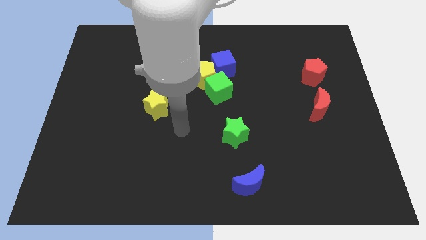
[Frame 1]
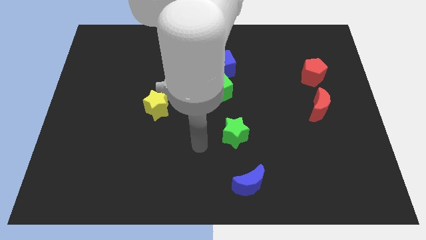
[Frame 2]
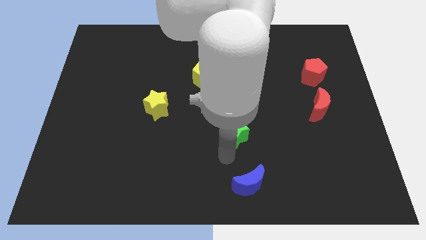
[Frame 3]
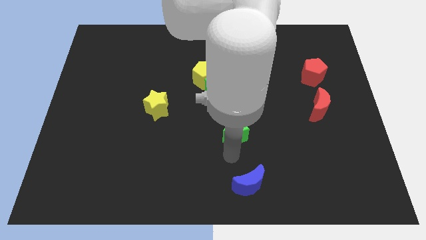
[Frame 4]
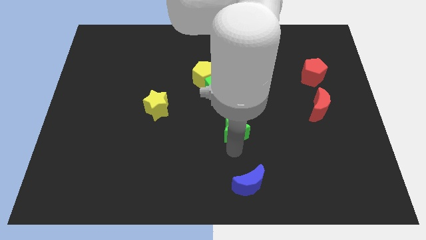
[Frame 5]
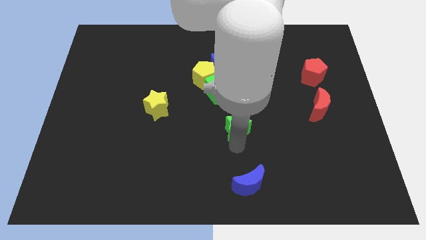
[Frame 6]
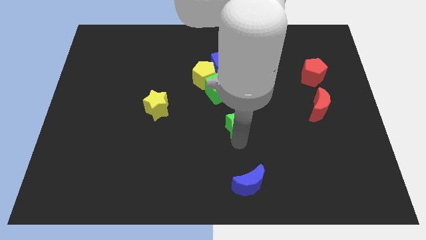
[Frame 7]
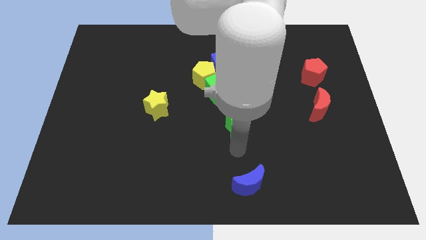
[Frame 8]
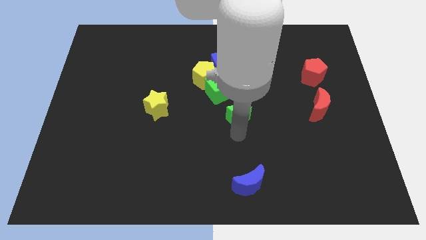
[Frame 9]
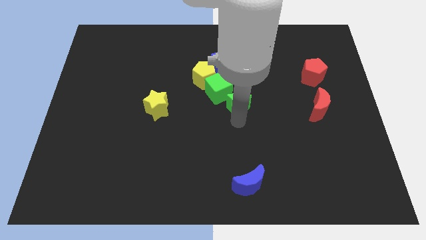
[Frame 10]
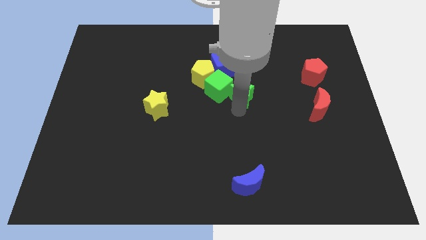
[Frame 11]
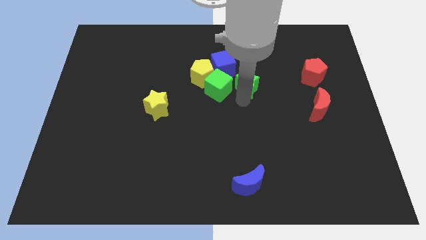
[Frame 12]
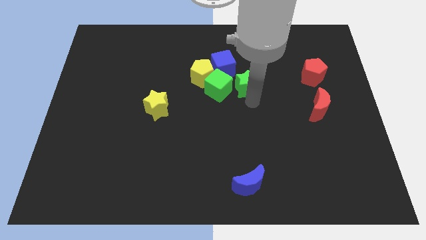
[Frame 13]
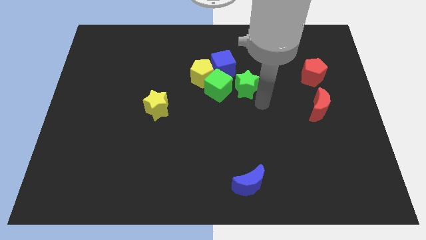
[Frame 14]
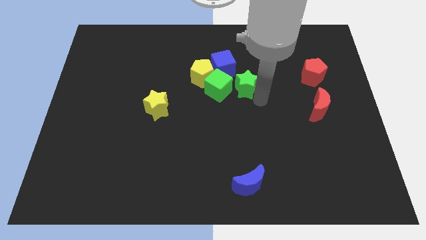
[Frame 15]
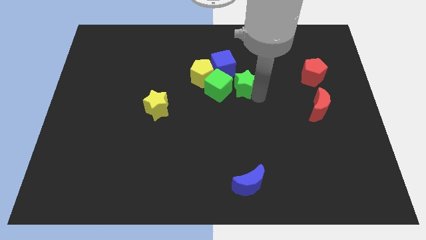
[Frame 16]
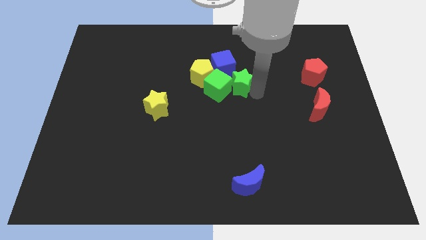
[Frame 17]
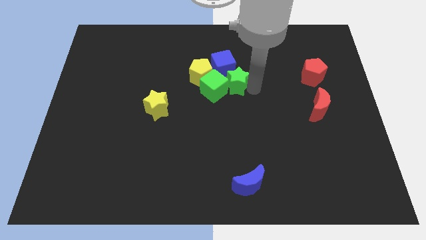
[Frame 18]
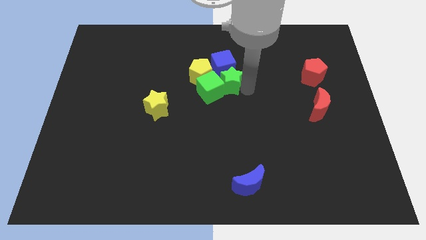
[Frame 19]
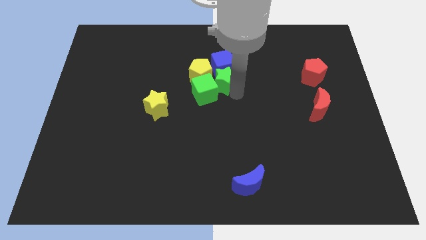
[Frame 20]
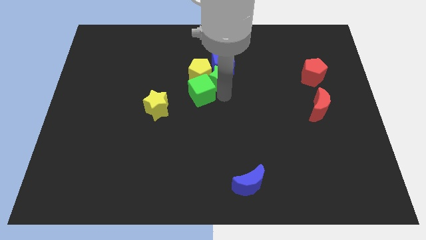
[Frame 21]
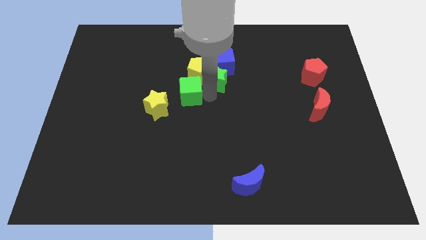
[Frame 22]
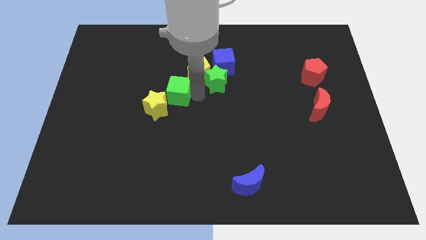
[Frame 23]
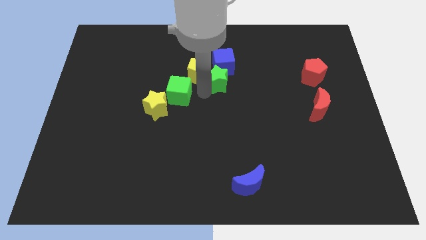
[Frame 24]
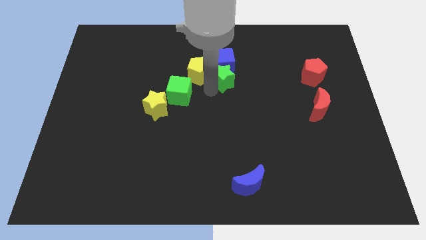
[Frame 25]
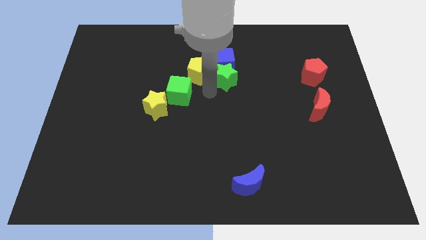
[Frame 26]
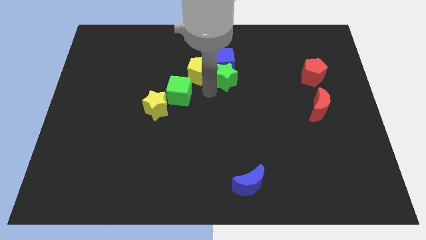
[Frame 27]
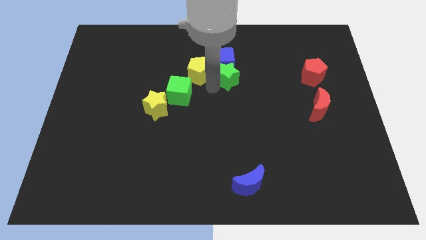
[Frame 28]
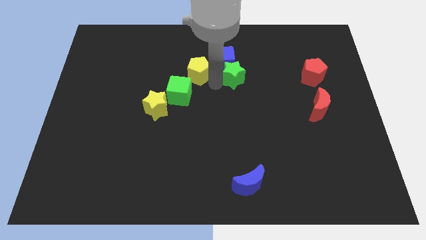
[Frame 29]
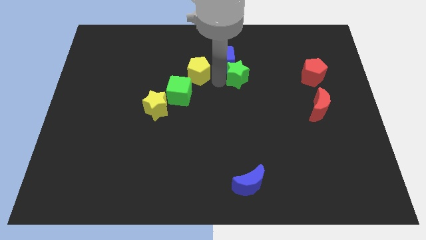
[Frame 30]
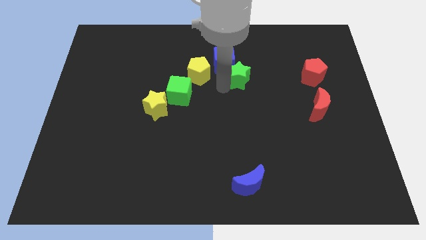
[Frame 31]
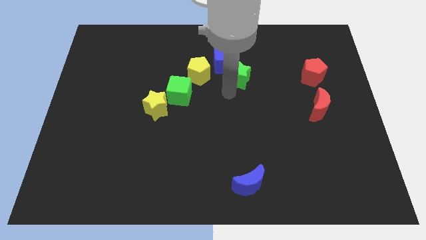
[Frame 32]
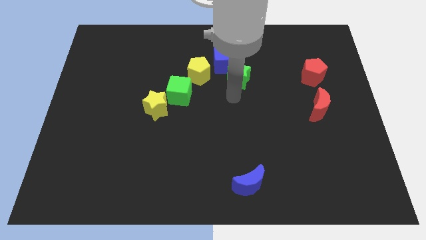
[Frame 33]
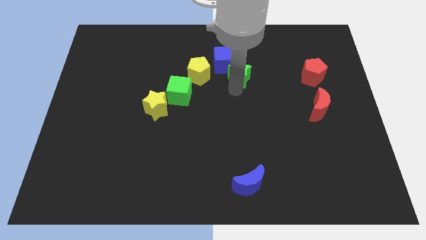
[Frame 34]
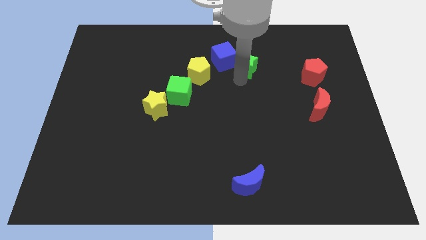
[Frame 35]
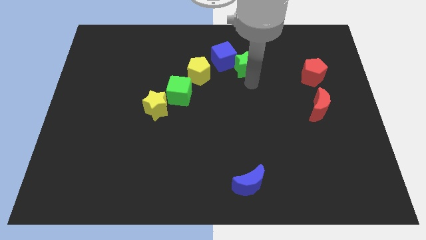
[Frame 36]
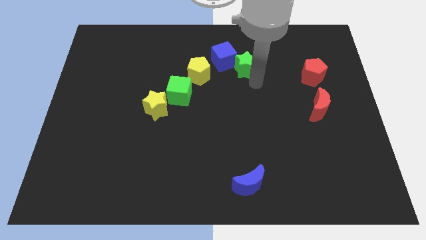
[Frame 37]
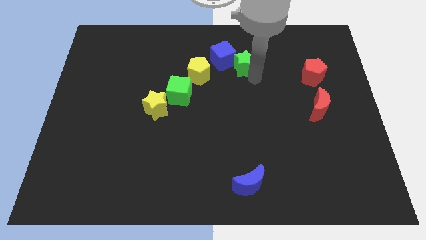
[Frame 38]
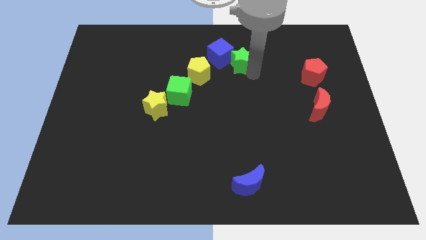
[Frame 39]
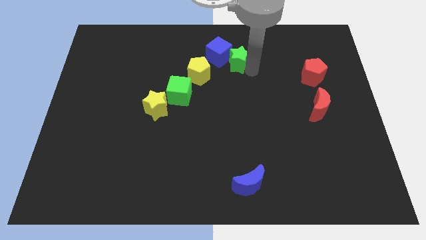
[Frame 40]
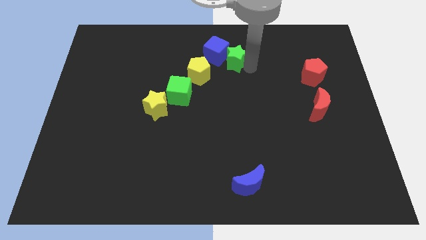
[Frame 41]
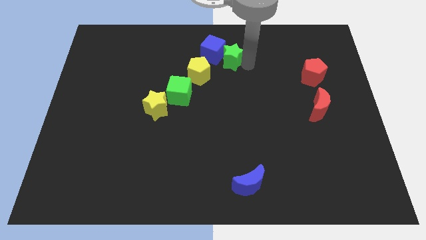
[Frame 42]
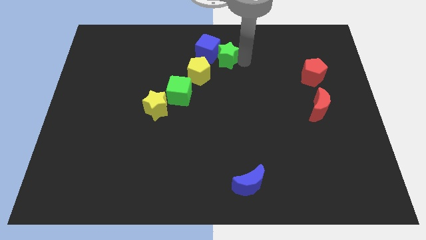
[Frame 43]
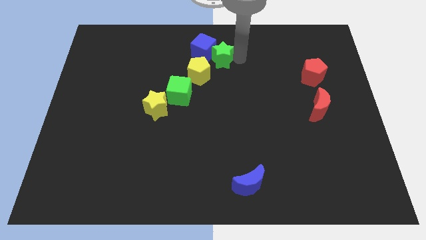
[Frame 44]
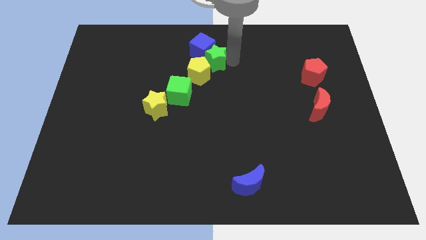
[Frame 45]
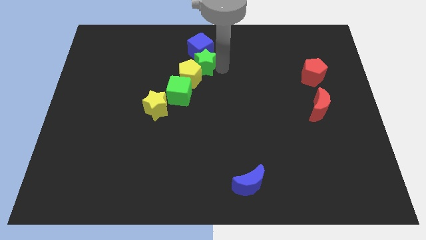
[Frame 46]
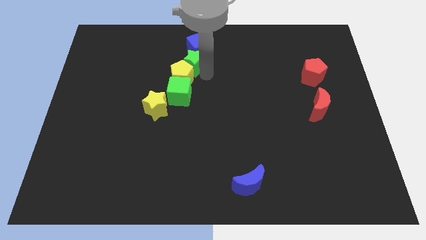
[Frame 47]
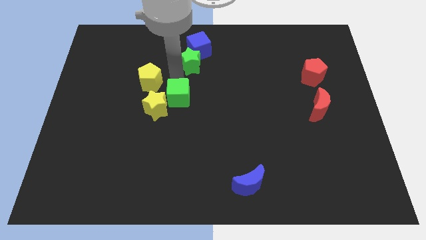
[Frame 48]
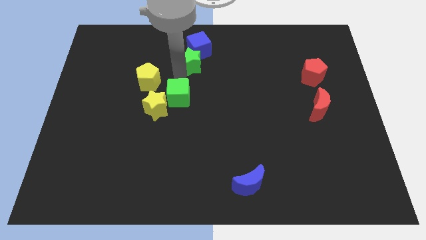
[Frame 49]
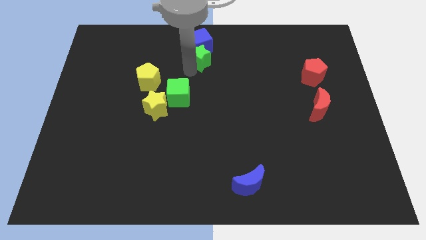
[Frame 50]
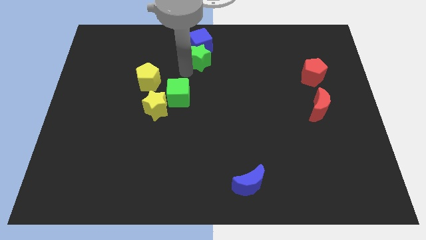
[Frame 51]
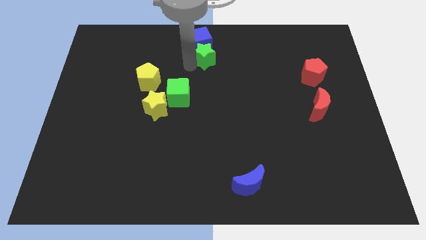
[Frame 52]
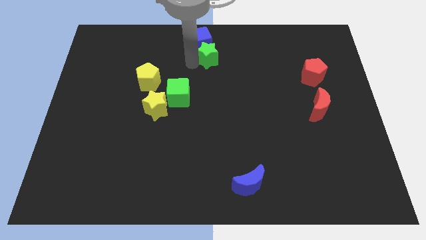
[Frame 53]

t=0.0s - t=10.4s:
slide the green star to the towards your base

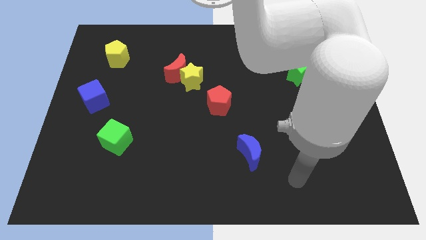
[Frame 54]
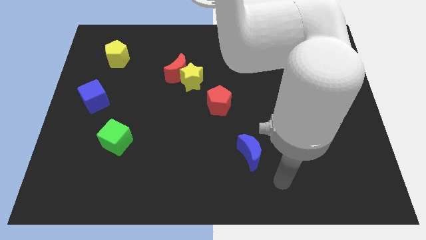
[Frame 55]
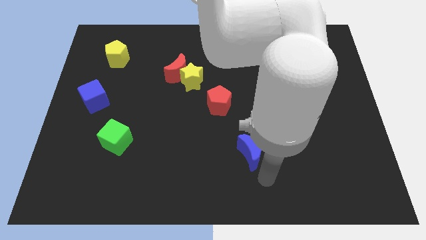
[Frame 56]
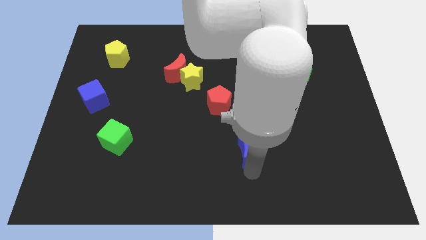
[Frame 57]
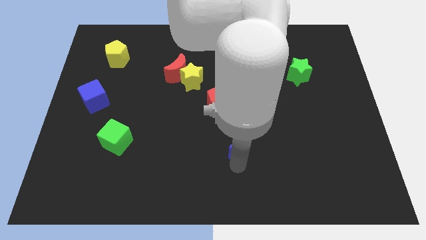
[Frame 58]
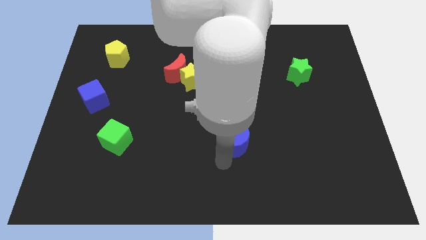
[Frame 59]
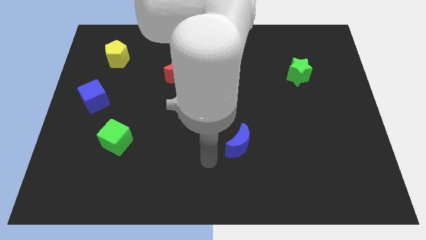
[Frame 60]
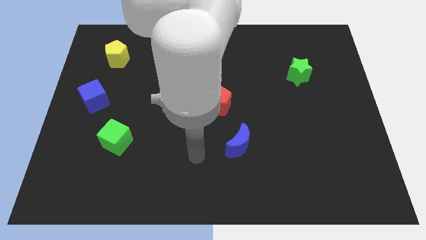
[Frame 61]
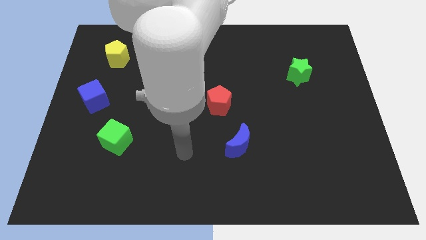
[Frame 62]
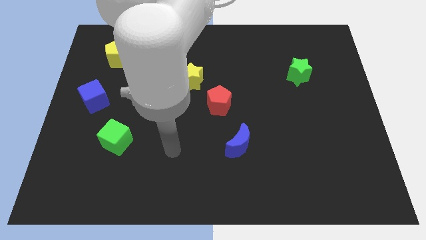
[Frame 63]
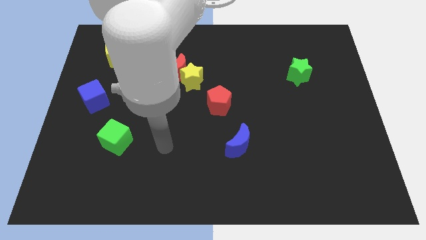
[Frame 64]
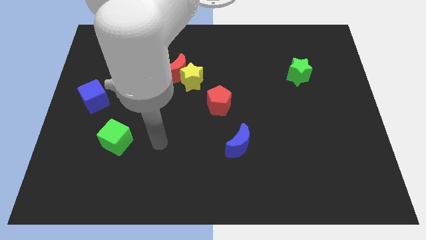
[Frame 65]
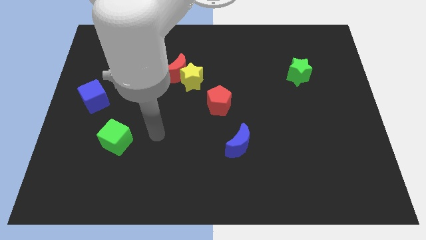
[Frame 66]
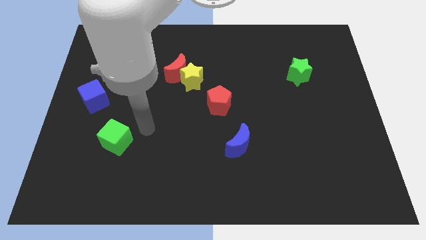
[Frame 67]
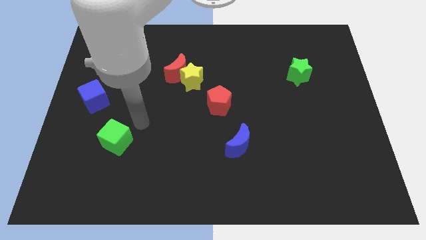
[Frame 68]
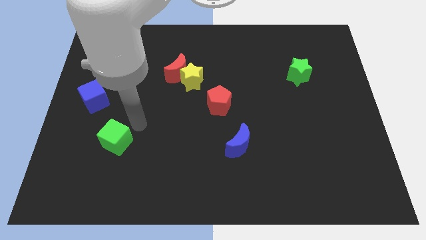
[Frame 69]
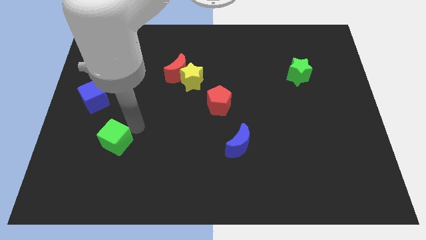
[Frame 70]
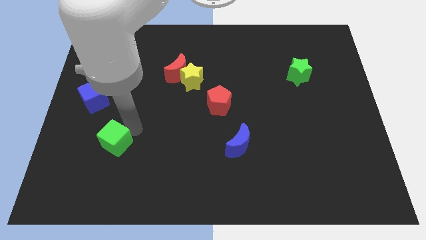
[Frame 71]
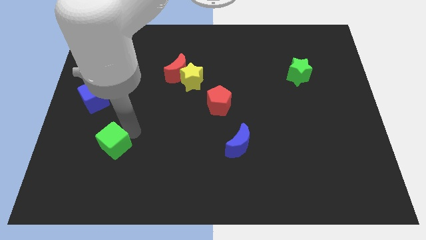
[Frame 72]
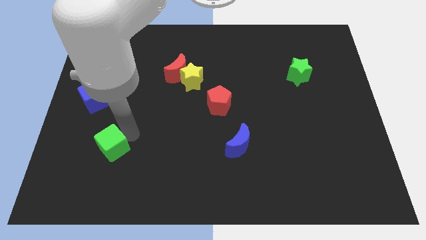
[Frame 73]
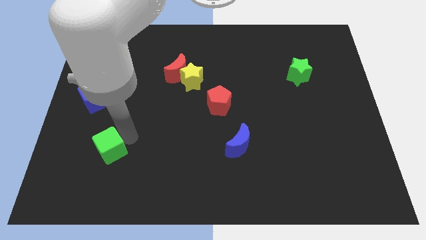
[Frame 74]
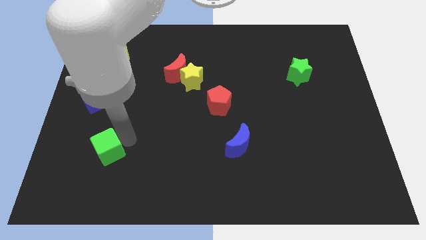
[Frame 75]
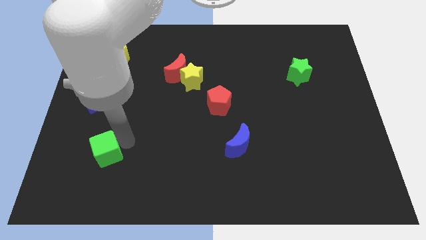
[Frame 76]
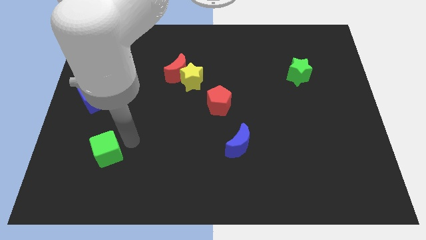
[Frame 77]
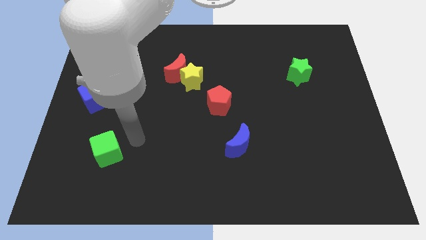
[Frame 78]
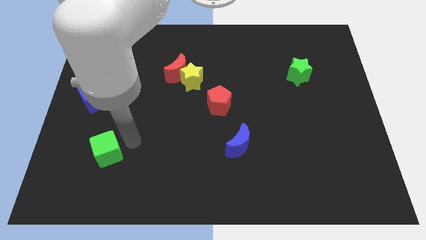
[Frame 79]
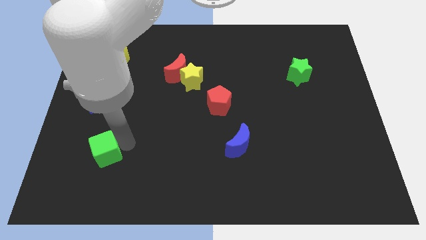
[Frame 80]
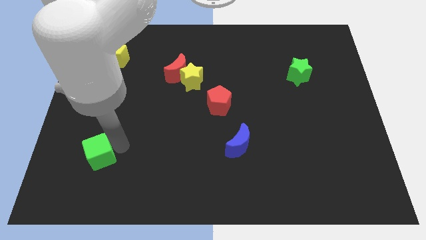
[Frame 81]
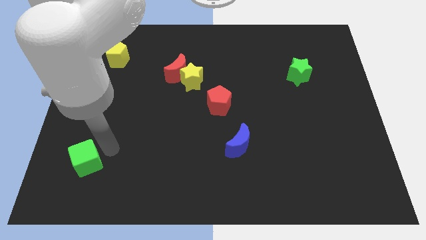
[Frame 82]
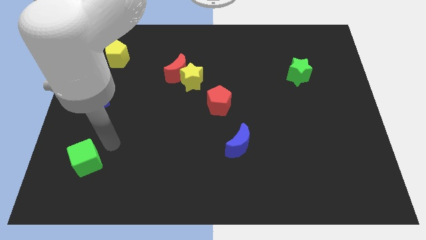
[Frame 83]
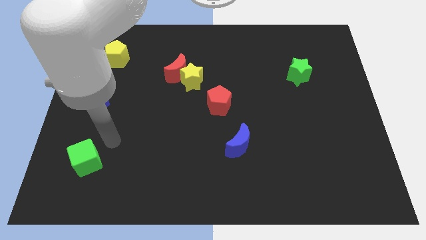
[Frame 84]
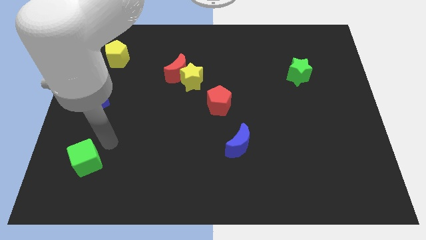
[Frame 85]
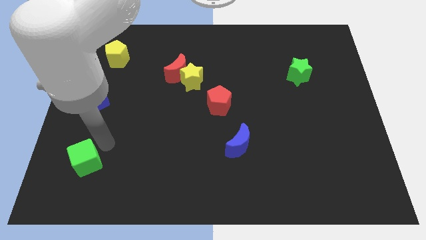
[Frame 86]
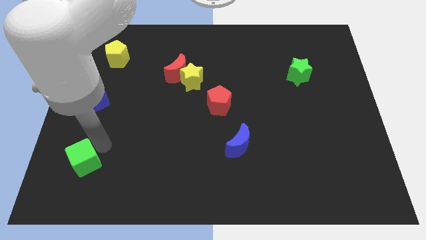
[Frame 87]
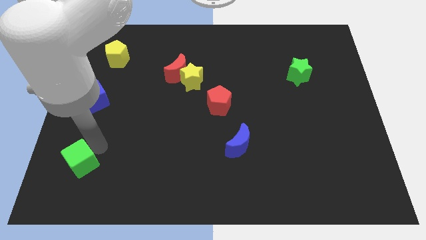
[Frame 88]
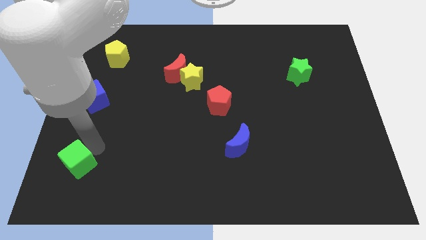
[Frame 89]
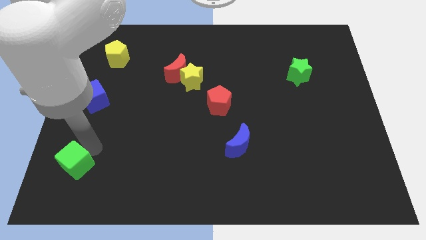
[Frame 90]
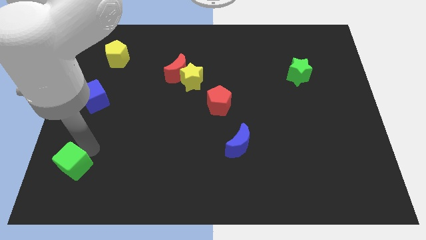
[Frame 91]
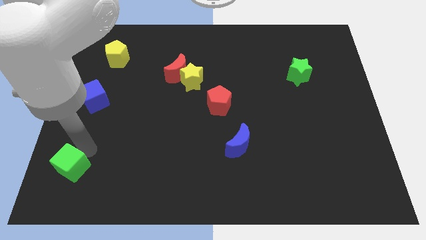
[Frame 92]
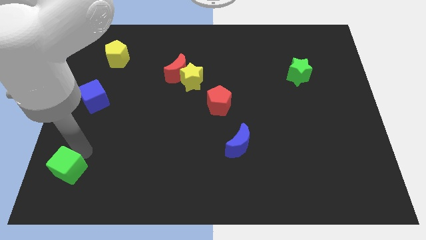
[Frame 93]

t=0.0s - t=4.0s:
slide the green cube to the bottom left of the board
